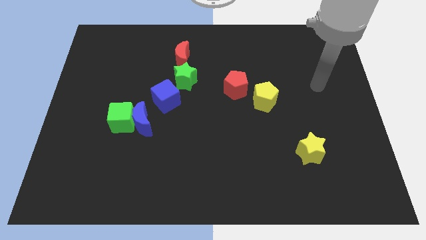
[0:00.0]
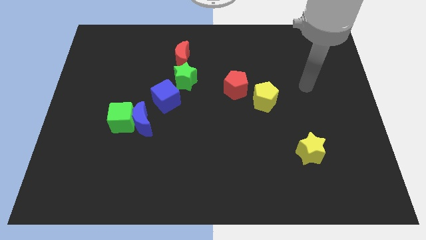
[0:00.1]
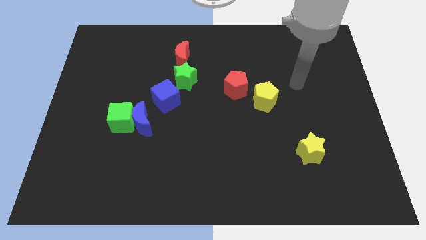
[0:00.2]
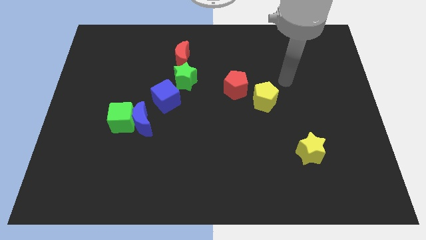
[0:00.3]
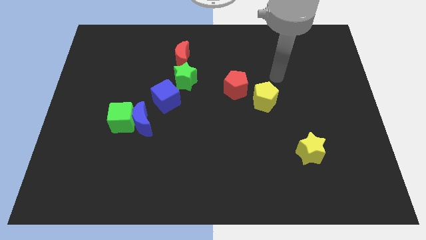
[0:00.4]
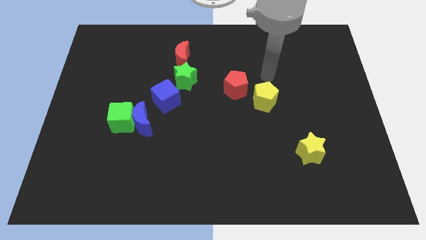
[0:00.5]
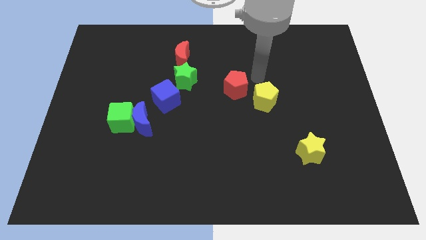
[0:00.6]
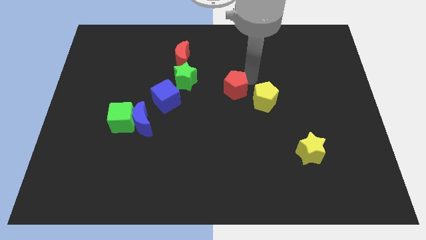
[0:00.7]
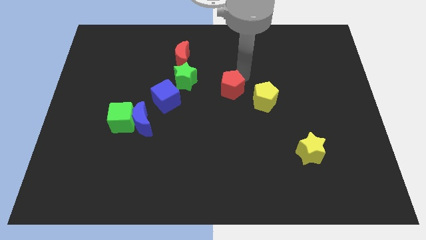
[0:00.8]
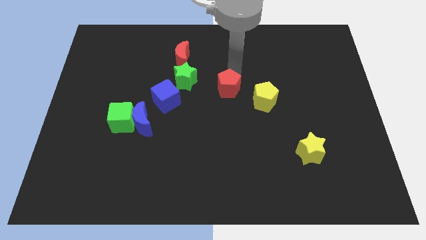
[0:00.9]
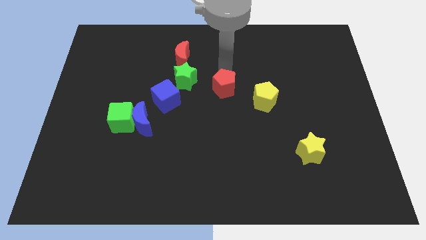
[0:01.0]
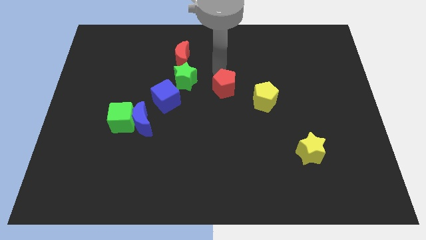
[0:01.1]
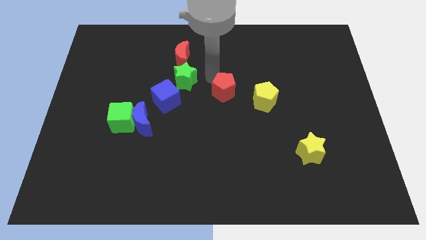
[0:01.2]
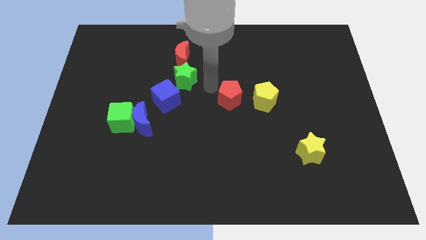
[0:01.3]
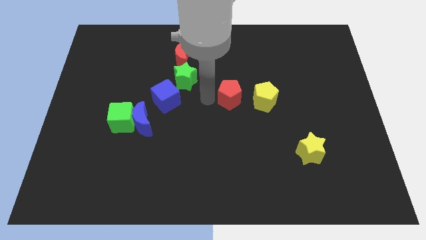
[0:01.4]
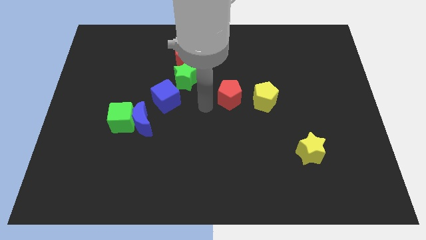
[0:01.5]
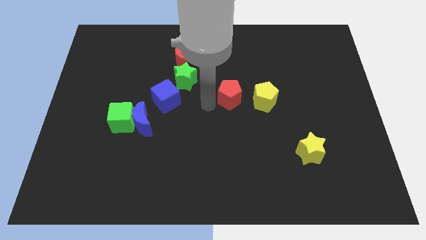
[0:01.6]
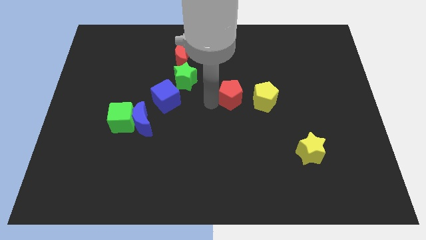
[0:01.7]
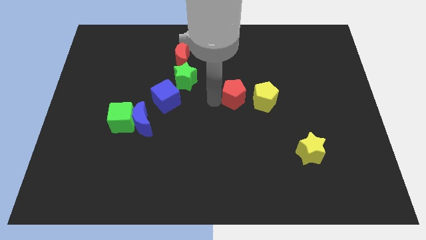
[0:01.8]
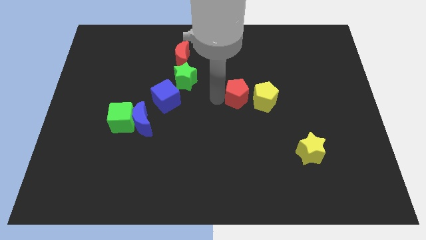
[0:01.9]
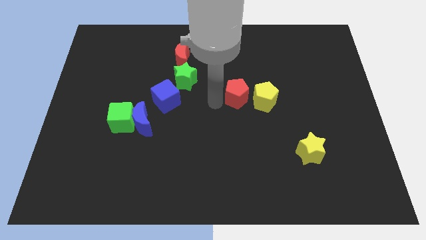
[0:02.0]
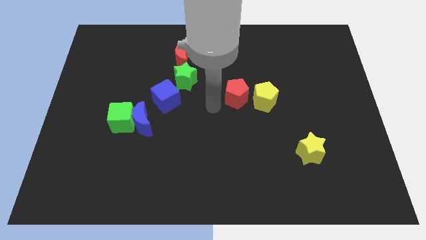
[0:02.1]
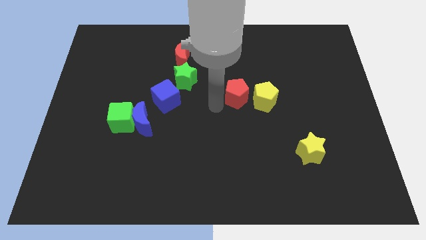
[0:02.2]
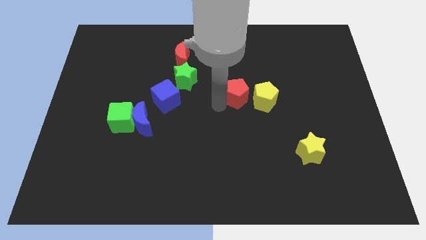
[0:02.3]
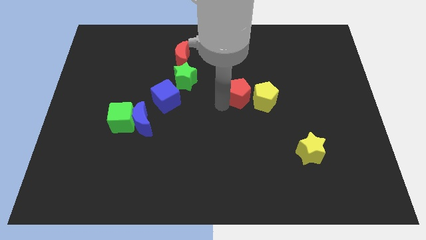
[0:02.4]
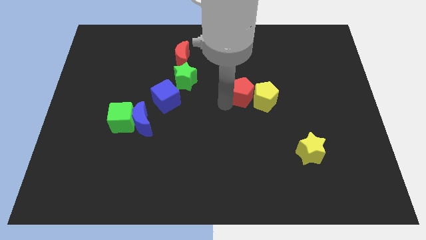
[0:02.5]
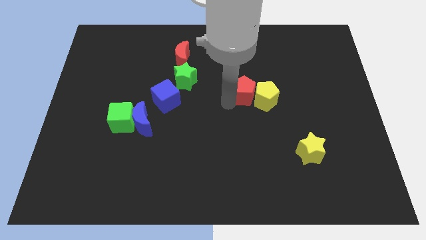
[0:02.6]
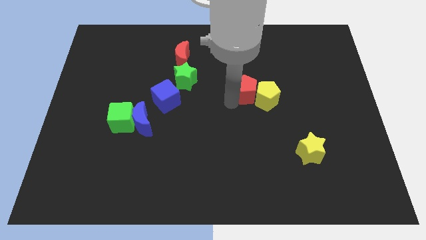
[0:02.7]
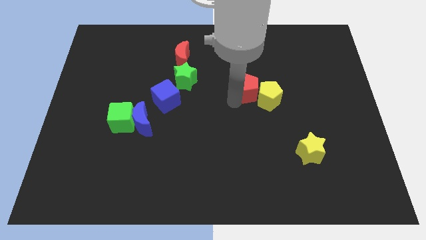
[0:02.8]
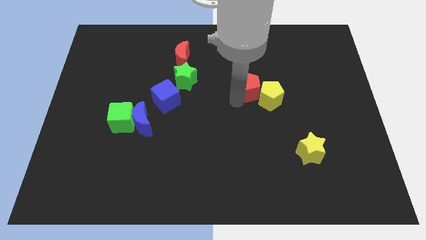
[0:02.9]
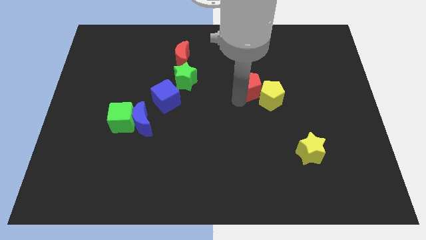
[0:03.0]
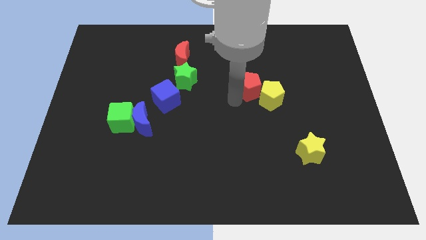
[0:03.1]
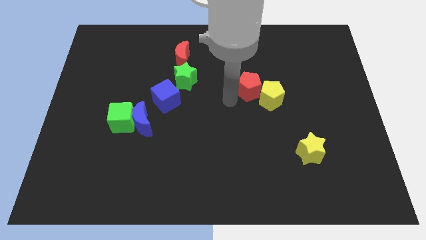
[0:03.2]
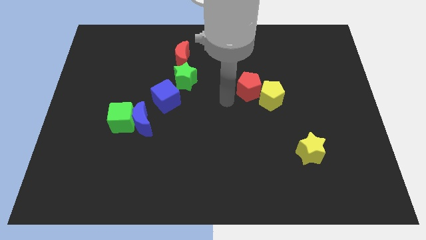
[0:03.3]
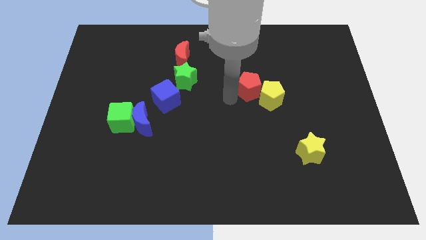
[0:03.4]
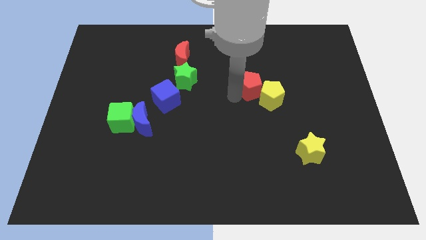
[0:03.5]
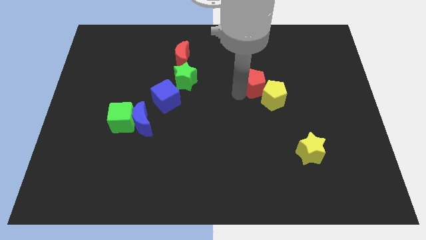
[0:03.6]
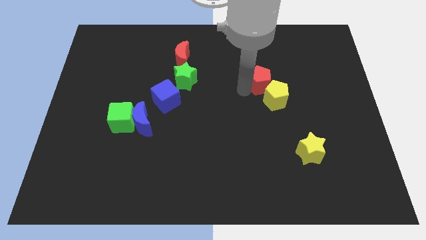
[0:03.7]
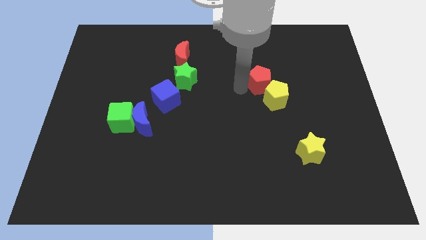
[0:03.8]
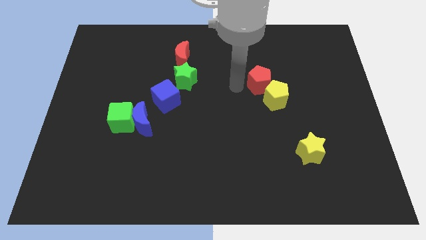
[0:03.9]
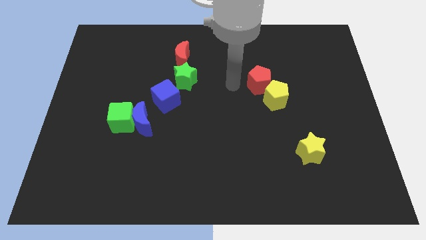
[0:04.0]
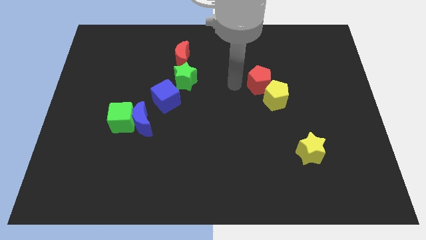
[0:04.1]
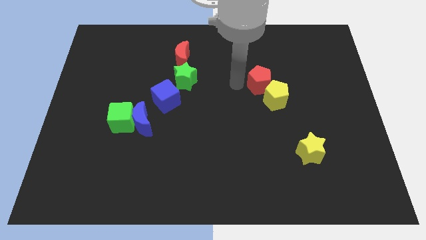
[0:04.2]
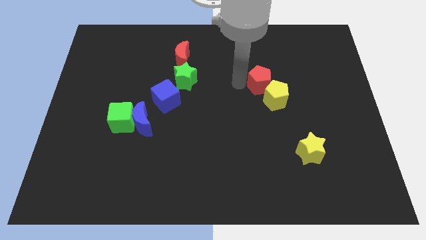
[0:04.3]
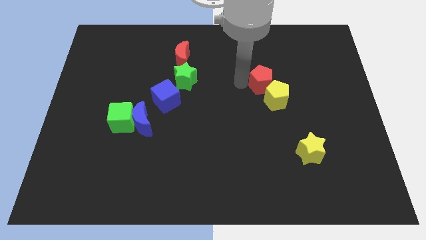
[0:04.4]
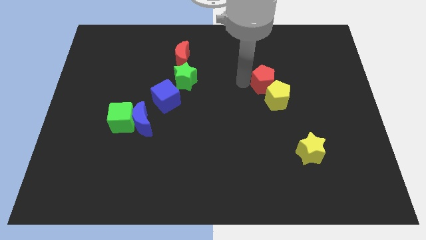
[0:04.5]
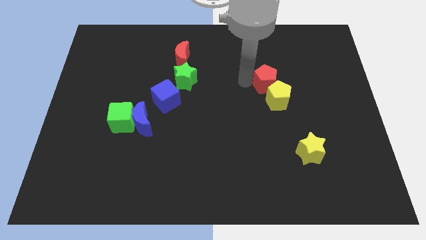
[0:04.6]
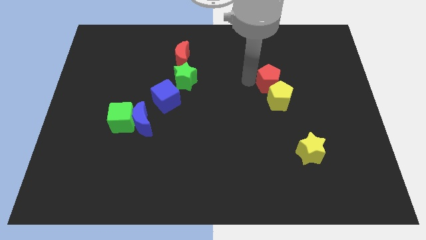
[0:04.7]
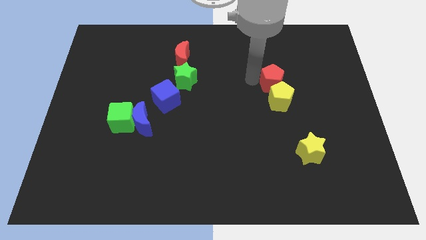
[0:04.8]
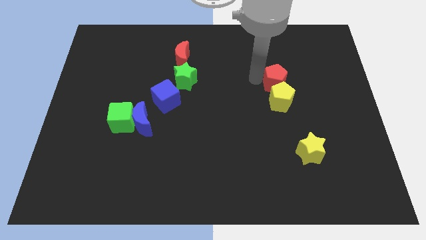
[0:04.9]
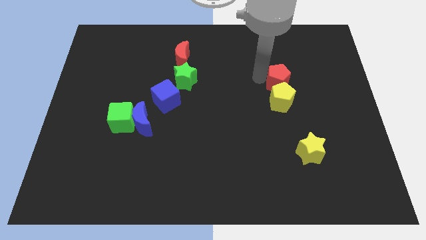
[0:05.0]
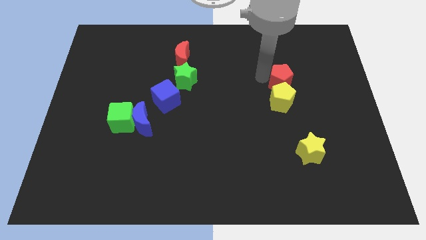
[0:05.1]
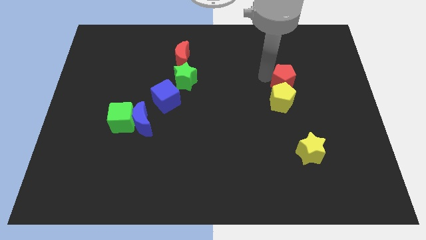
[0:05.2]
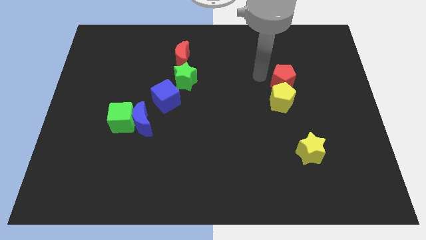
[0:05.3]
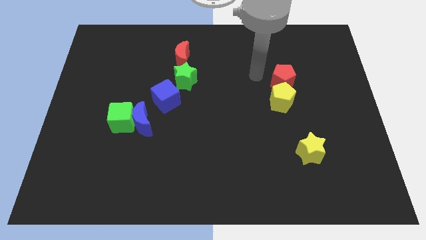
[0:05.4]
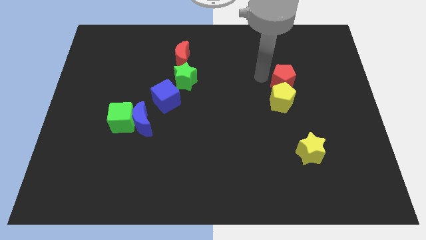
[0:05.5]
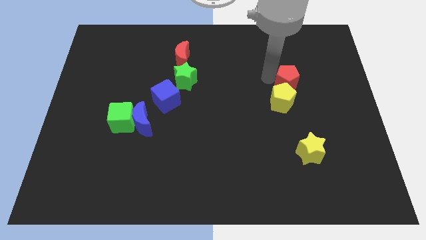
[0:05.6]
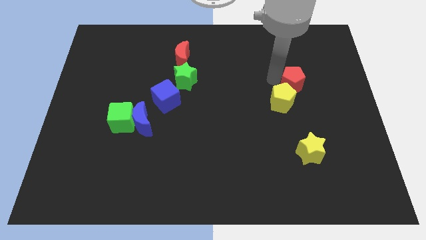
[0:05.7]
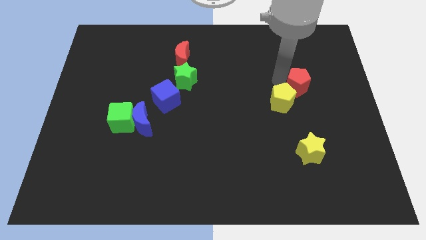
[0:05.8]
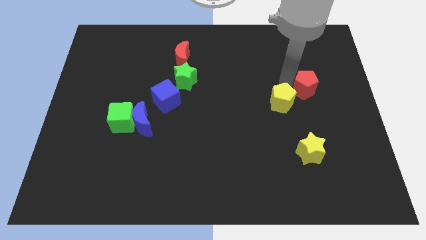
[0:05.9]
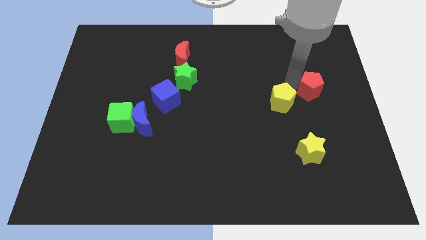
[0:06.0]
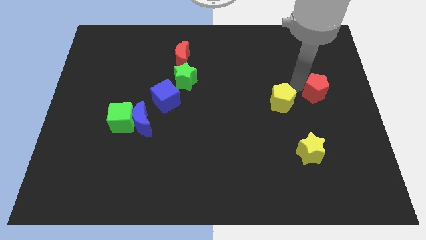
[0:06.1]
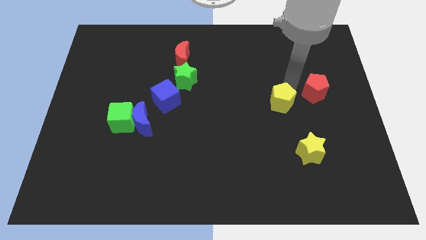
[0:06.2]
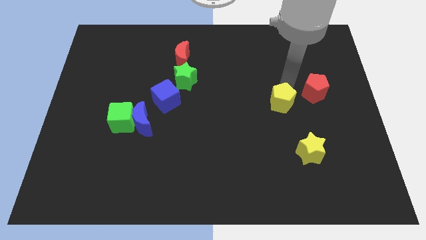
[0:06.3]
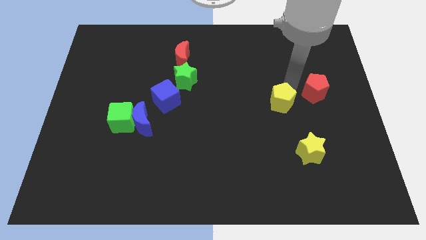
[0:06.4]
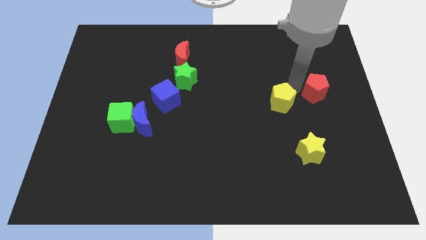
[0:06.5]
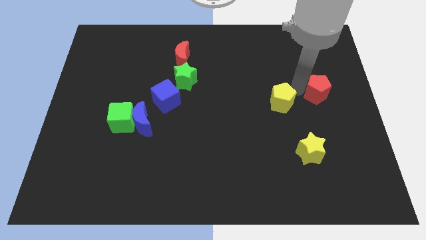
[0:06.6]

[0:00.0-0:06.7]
slide the red pentagon to the right side
